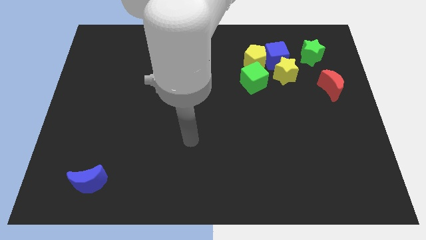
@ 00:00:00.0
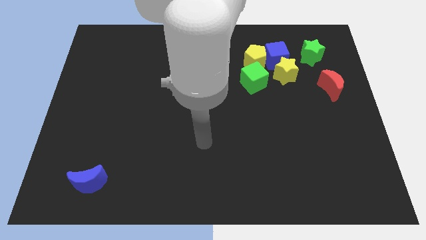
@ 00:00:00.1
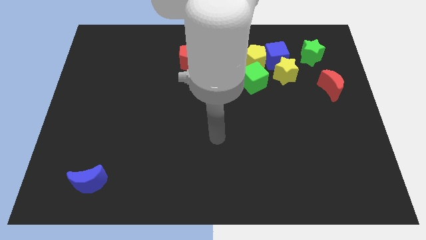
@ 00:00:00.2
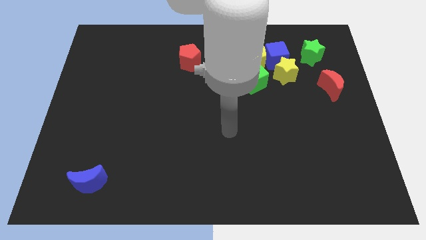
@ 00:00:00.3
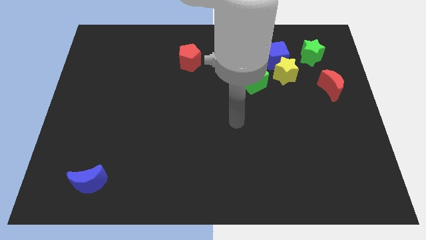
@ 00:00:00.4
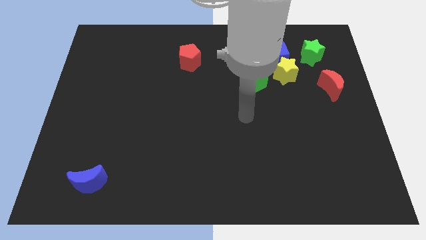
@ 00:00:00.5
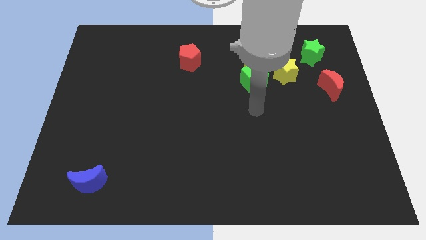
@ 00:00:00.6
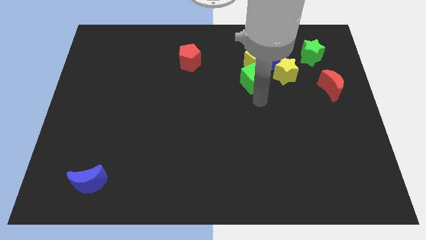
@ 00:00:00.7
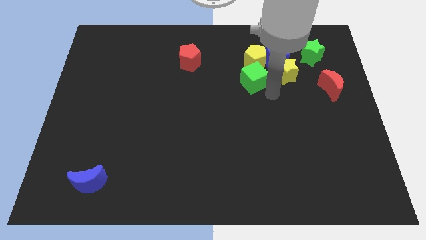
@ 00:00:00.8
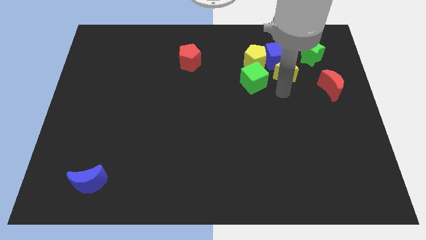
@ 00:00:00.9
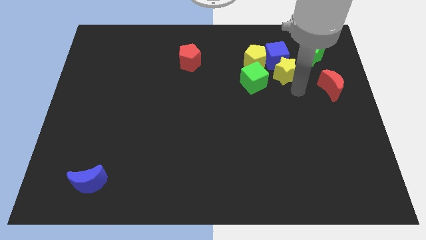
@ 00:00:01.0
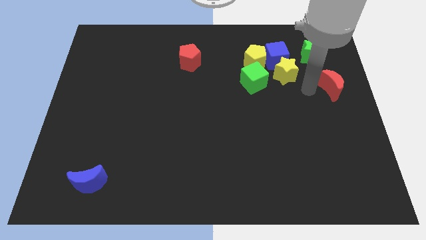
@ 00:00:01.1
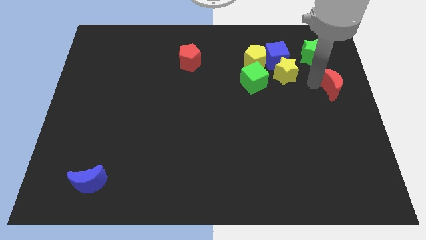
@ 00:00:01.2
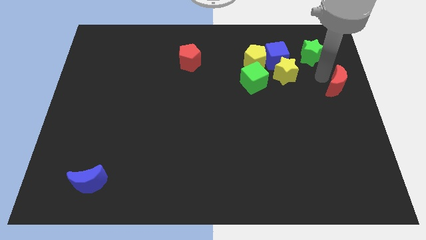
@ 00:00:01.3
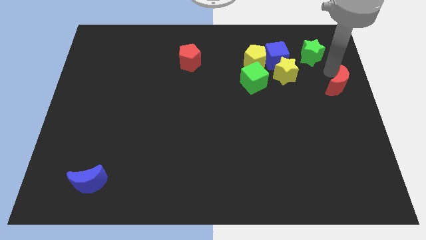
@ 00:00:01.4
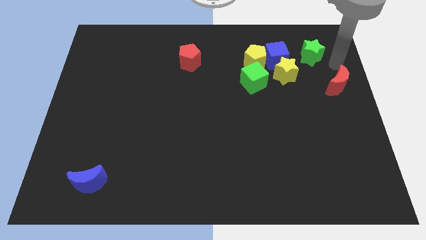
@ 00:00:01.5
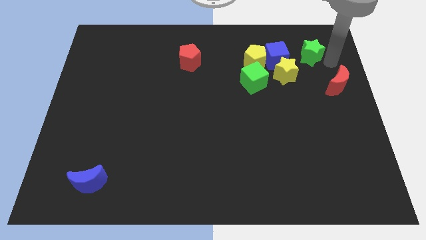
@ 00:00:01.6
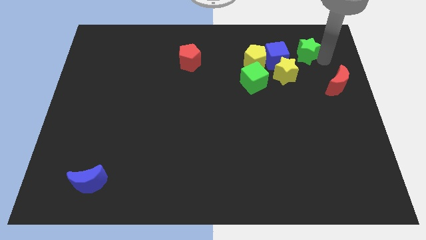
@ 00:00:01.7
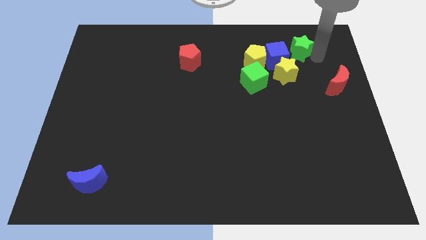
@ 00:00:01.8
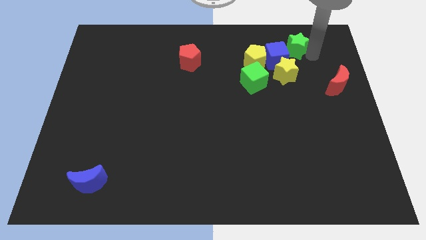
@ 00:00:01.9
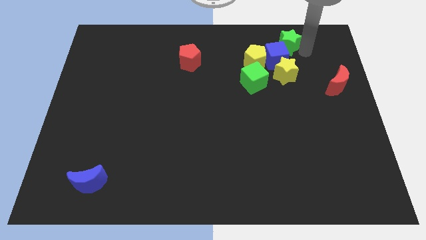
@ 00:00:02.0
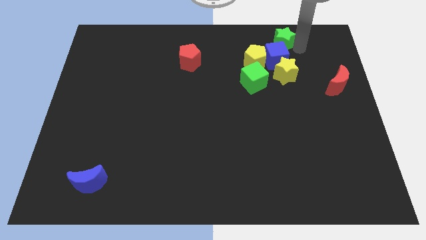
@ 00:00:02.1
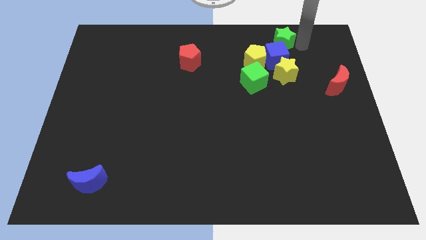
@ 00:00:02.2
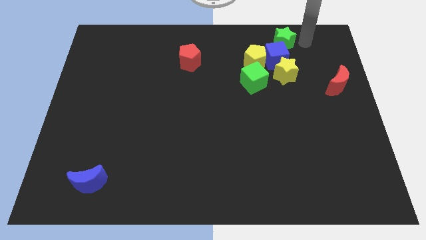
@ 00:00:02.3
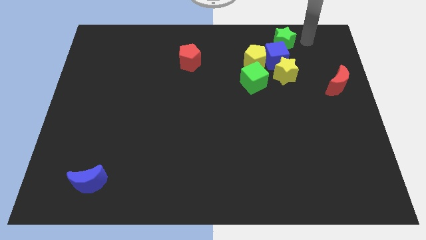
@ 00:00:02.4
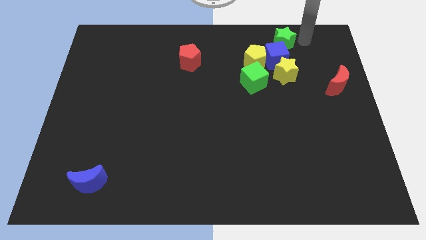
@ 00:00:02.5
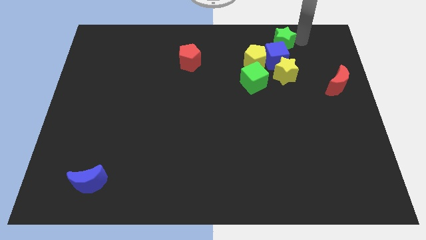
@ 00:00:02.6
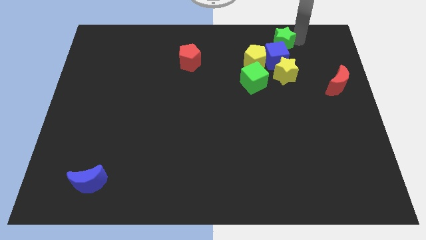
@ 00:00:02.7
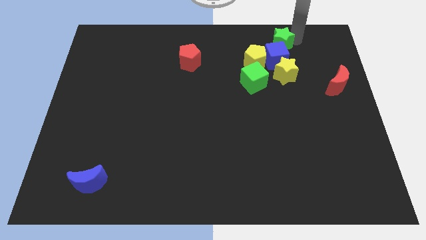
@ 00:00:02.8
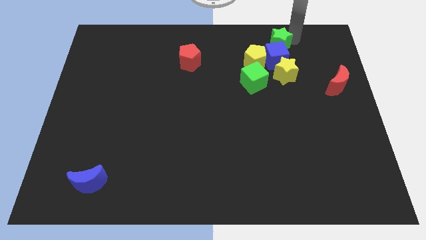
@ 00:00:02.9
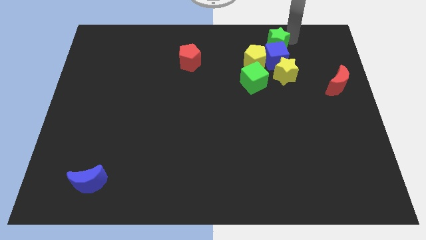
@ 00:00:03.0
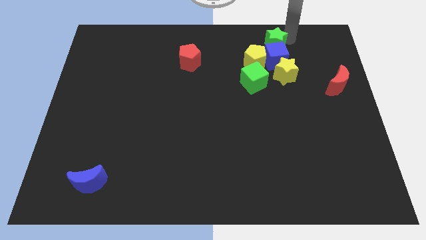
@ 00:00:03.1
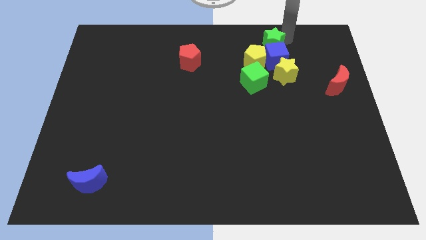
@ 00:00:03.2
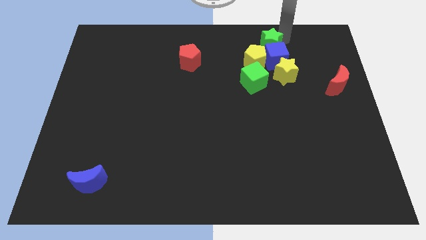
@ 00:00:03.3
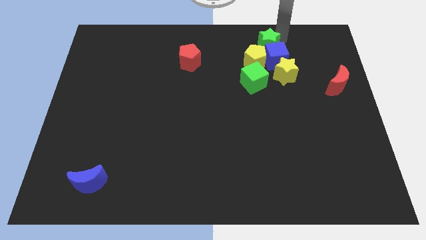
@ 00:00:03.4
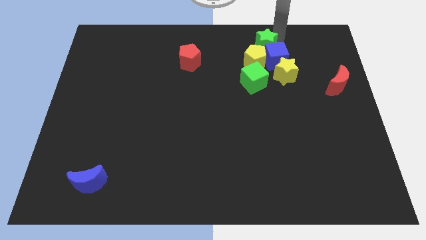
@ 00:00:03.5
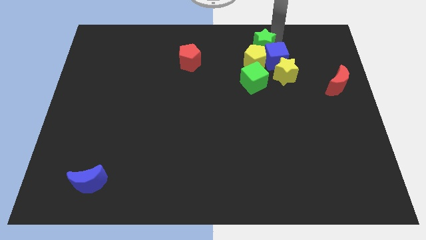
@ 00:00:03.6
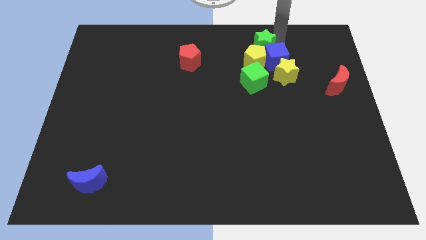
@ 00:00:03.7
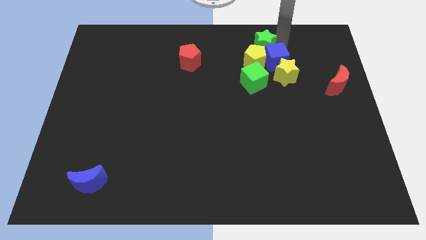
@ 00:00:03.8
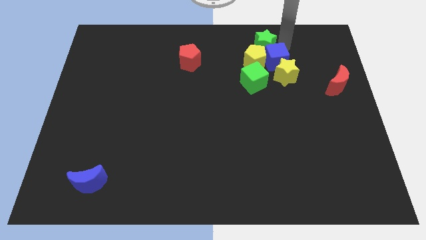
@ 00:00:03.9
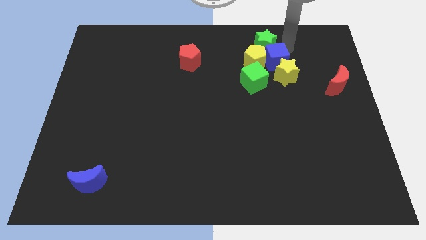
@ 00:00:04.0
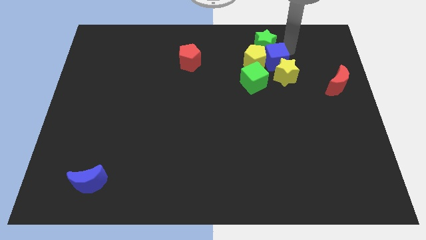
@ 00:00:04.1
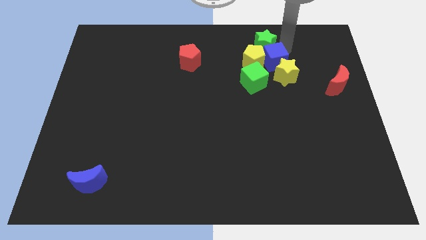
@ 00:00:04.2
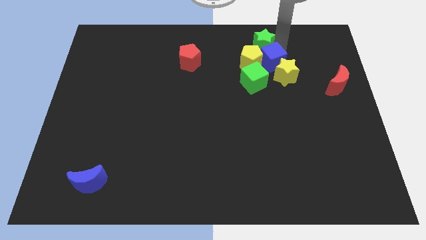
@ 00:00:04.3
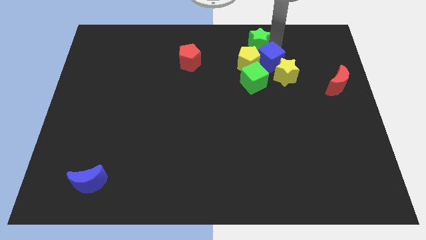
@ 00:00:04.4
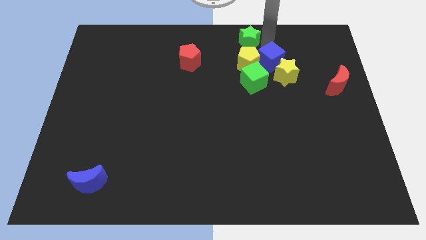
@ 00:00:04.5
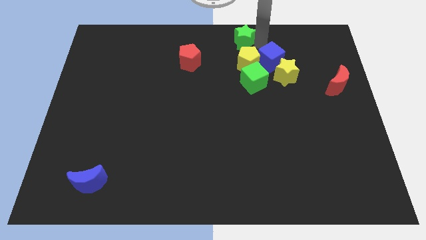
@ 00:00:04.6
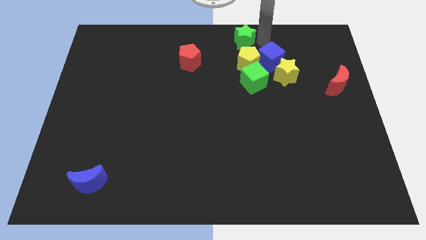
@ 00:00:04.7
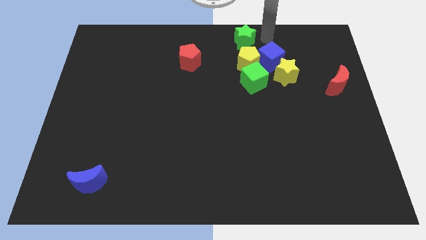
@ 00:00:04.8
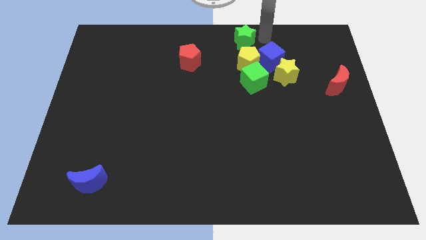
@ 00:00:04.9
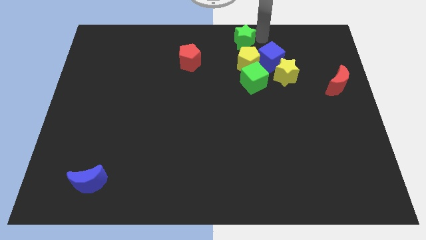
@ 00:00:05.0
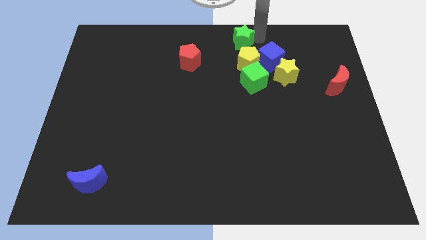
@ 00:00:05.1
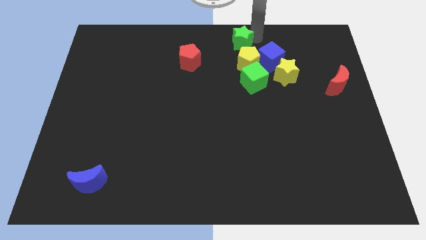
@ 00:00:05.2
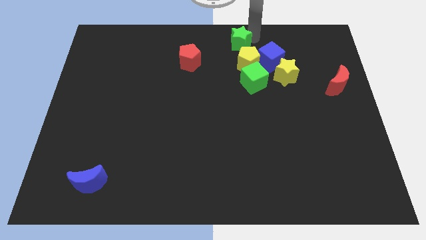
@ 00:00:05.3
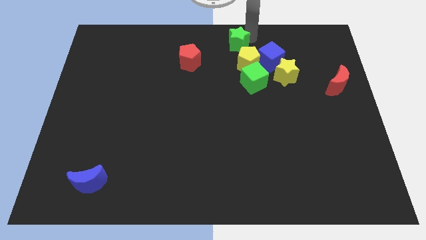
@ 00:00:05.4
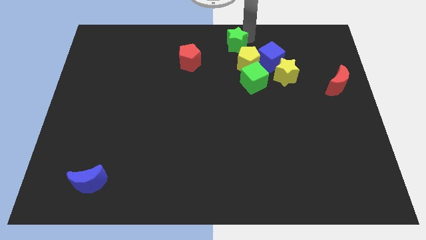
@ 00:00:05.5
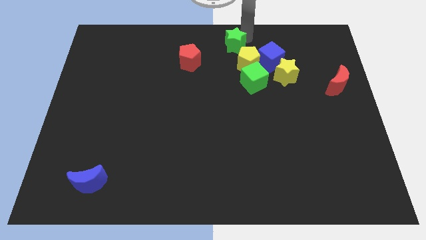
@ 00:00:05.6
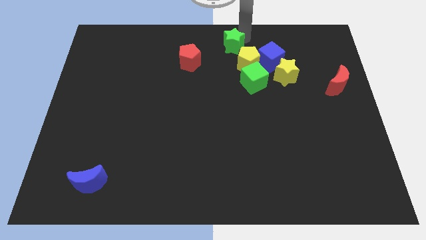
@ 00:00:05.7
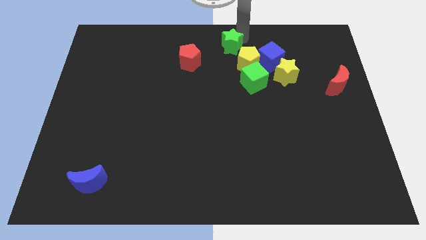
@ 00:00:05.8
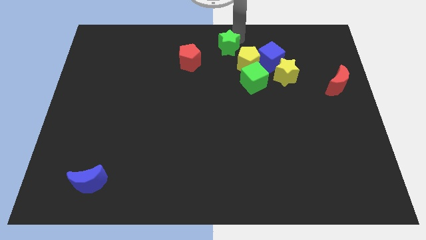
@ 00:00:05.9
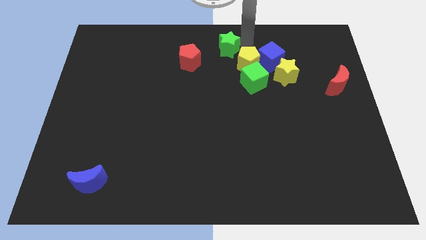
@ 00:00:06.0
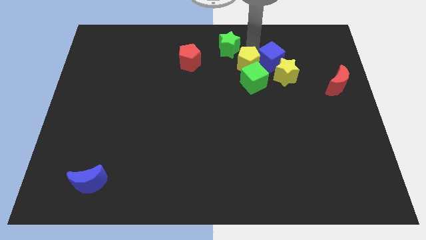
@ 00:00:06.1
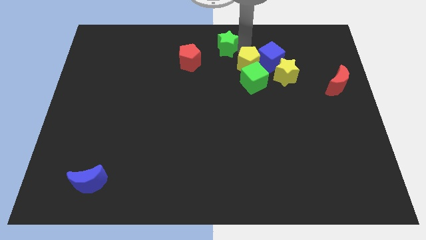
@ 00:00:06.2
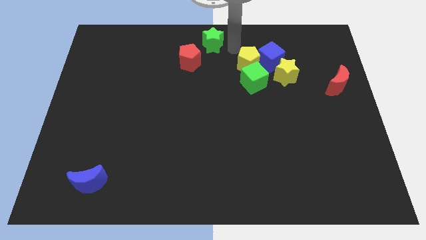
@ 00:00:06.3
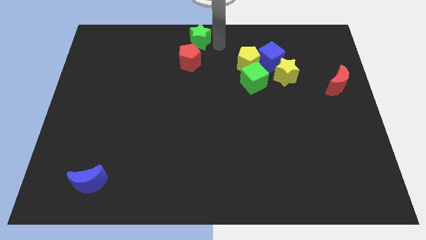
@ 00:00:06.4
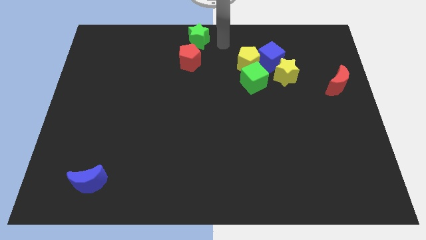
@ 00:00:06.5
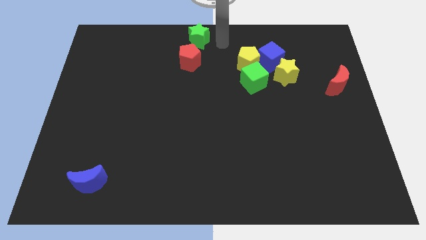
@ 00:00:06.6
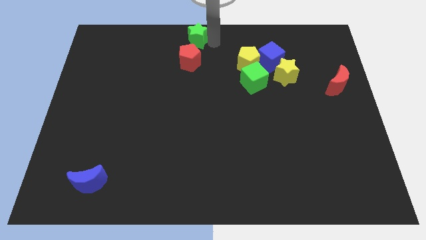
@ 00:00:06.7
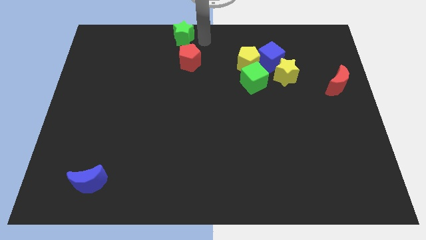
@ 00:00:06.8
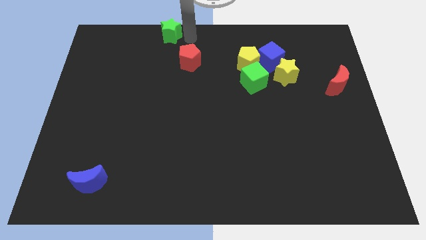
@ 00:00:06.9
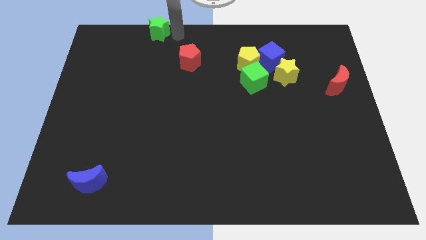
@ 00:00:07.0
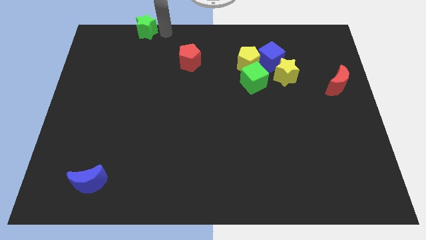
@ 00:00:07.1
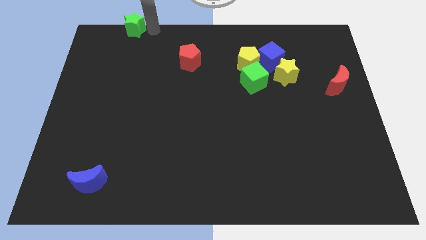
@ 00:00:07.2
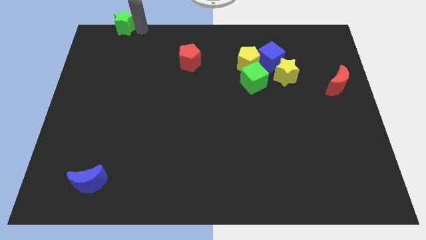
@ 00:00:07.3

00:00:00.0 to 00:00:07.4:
move the green star to the top left
